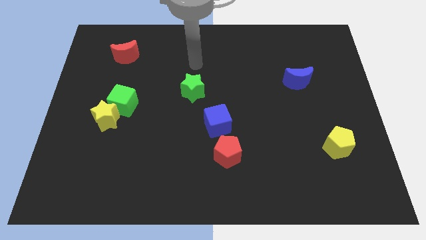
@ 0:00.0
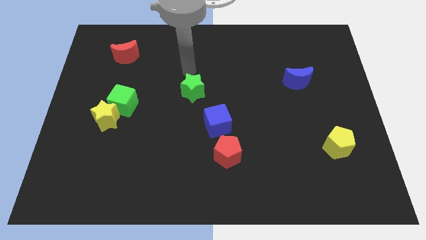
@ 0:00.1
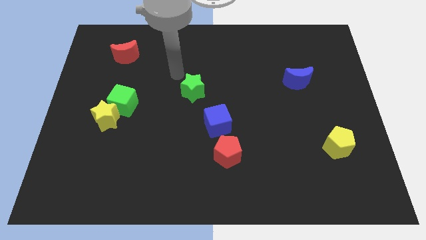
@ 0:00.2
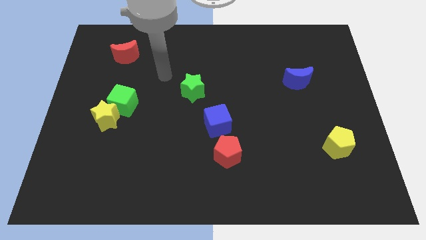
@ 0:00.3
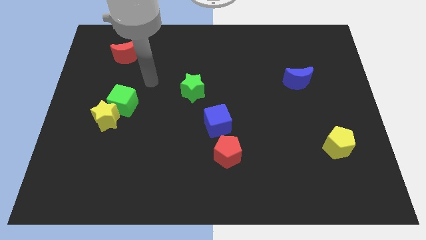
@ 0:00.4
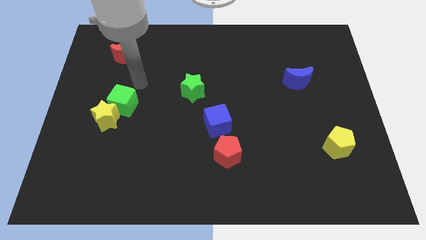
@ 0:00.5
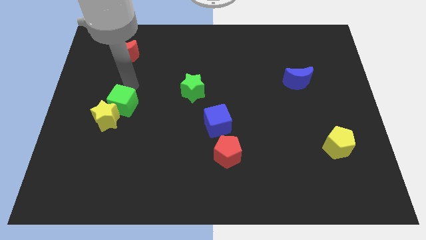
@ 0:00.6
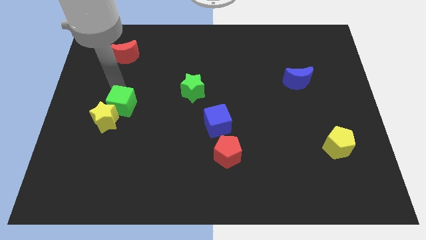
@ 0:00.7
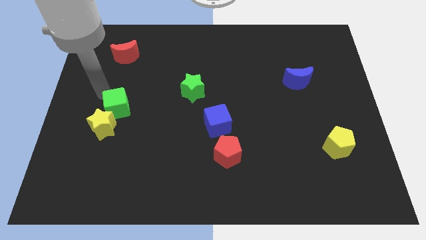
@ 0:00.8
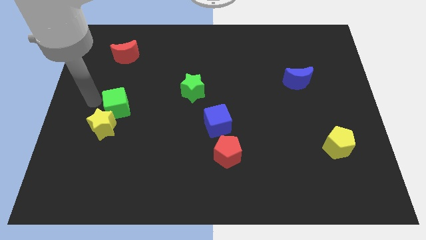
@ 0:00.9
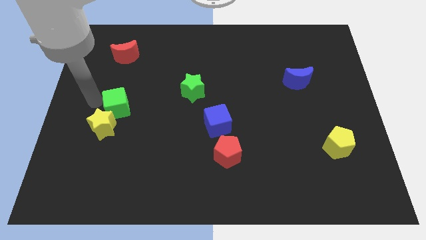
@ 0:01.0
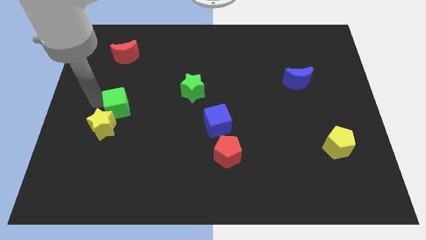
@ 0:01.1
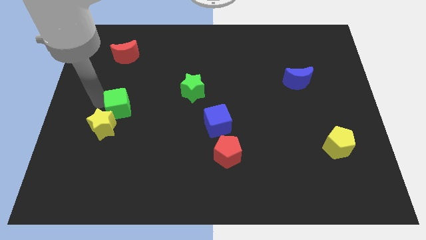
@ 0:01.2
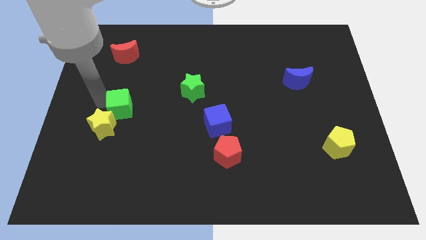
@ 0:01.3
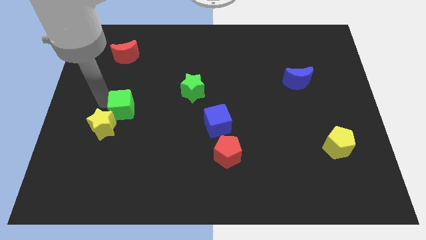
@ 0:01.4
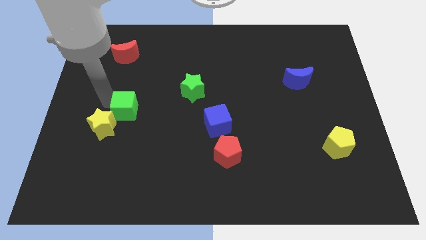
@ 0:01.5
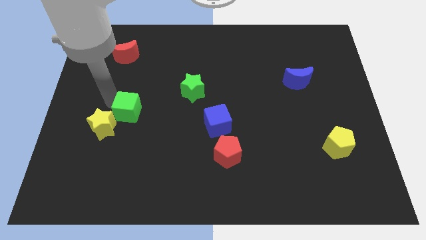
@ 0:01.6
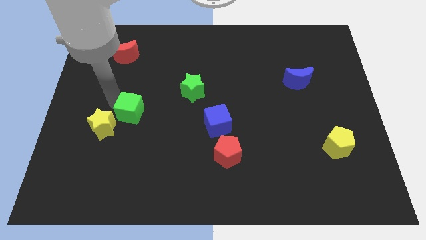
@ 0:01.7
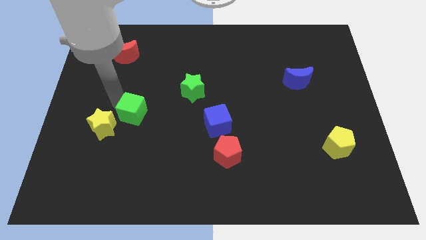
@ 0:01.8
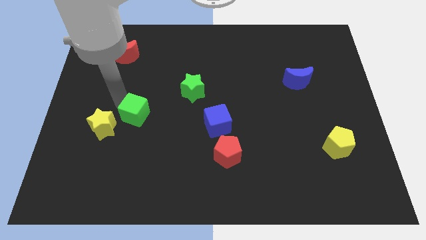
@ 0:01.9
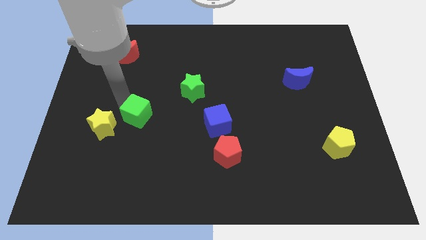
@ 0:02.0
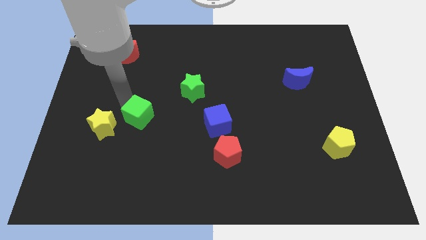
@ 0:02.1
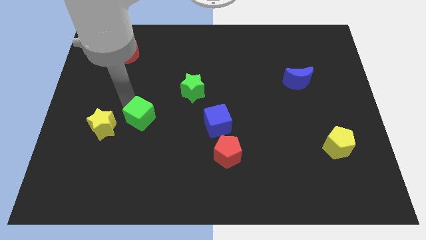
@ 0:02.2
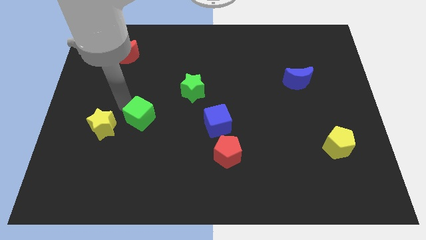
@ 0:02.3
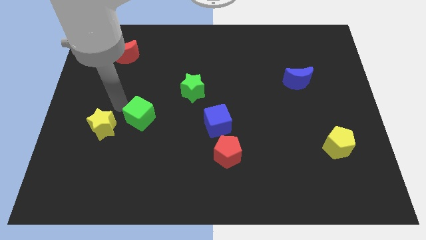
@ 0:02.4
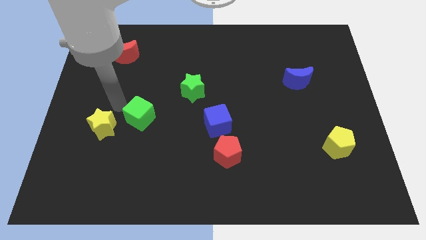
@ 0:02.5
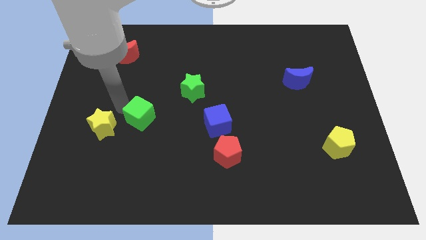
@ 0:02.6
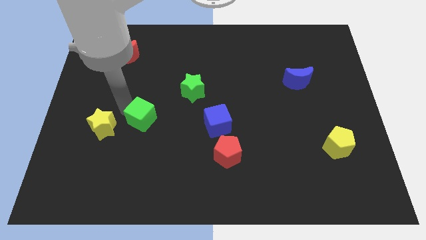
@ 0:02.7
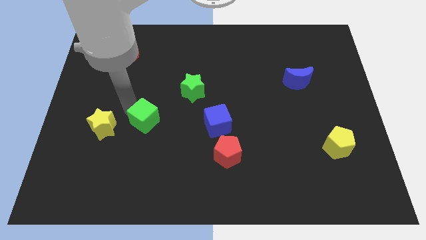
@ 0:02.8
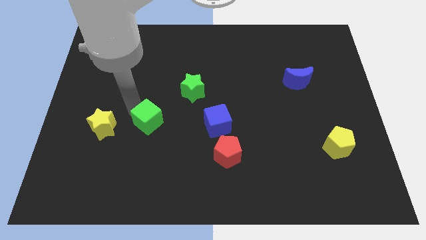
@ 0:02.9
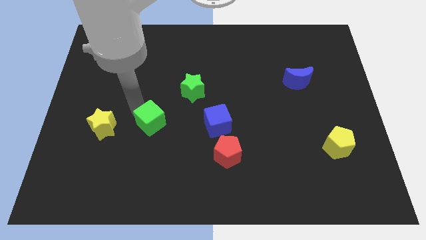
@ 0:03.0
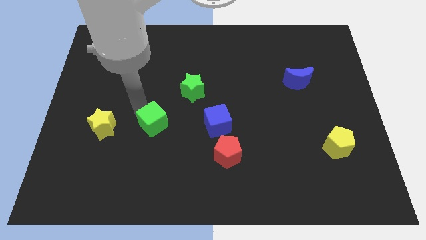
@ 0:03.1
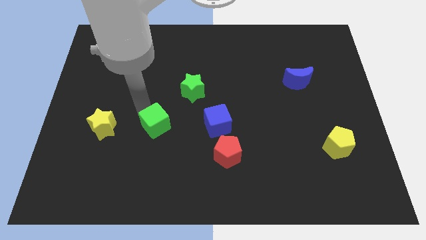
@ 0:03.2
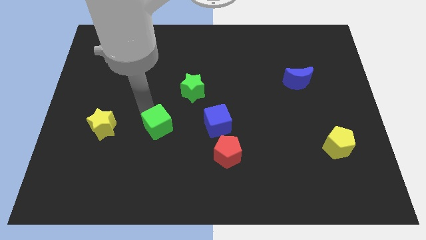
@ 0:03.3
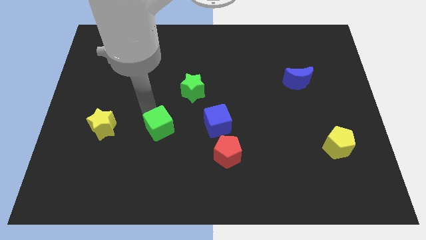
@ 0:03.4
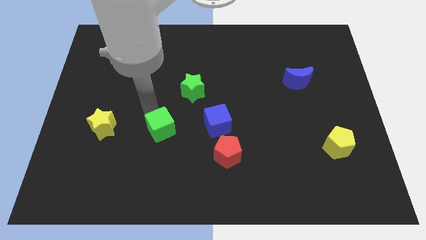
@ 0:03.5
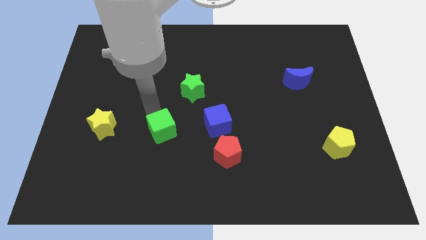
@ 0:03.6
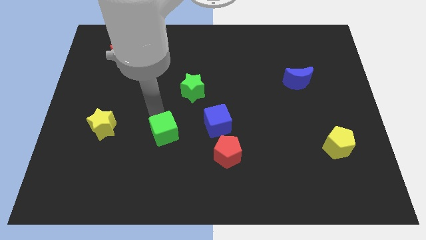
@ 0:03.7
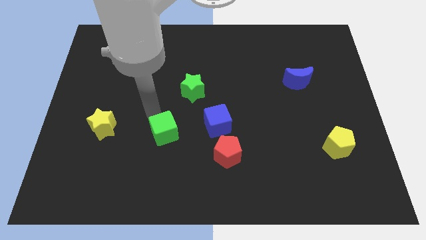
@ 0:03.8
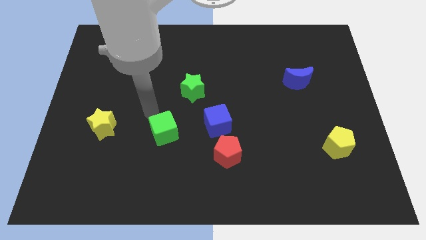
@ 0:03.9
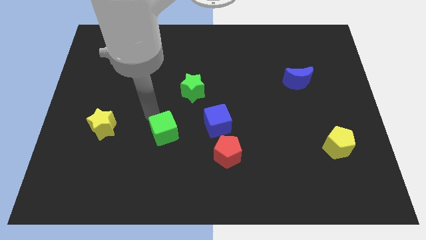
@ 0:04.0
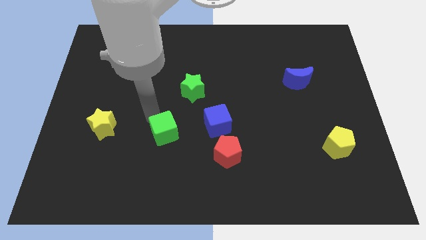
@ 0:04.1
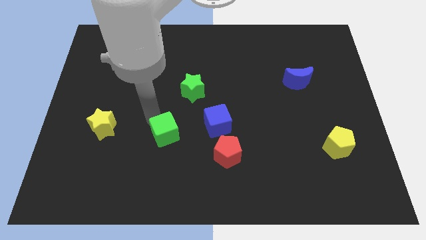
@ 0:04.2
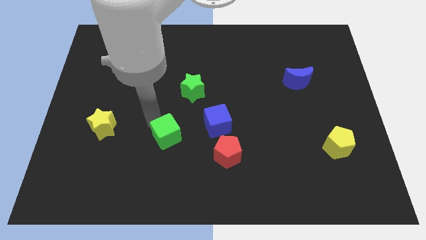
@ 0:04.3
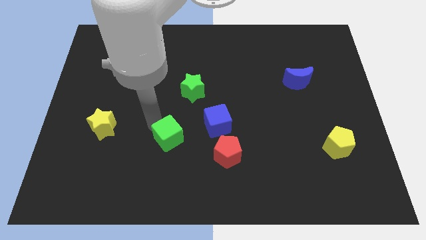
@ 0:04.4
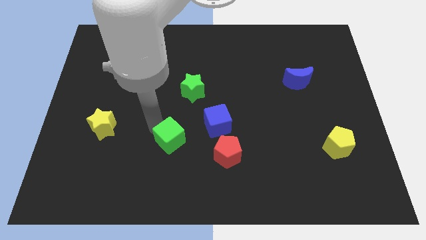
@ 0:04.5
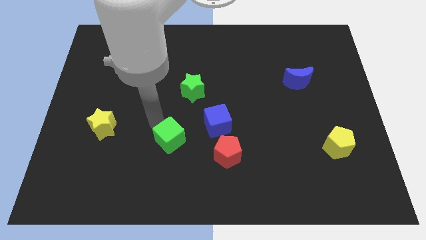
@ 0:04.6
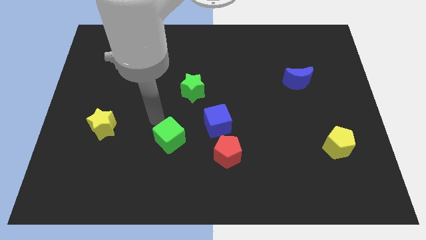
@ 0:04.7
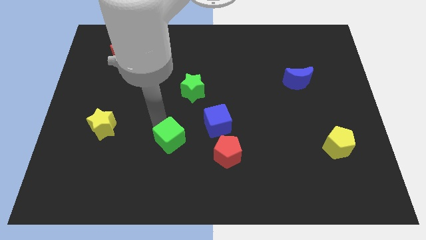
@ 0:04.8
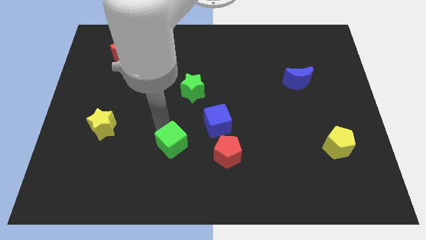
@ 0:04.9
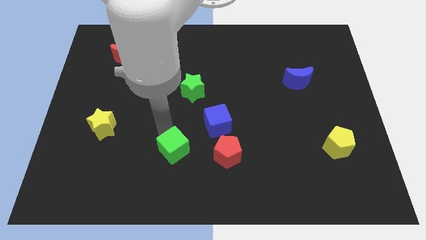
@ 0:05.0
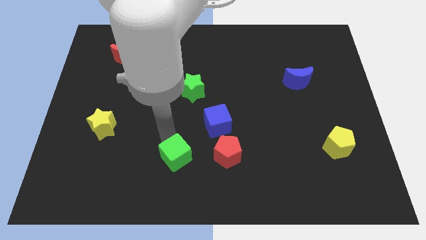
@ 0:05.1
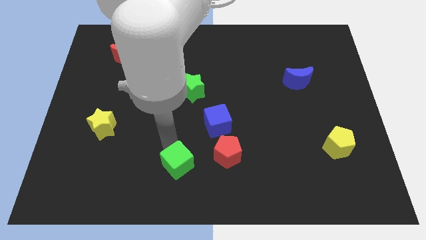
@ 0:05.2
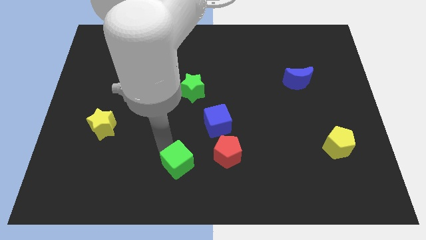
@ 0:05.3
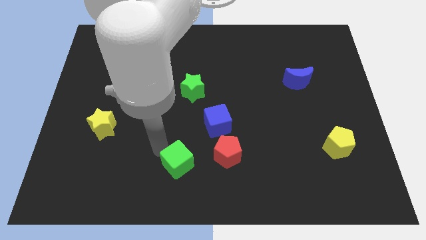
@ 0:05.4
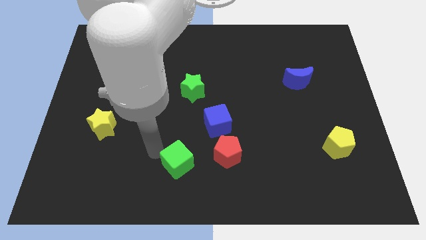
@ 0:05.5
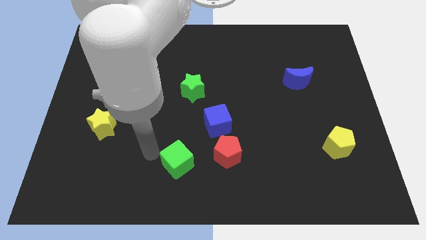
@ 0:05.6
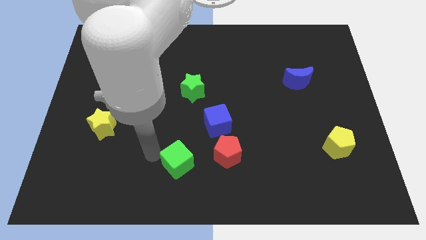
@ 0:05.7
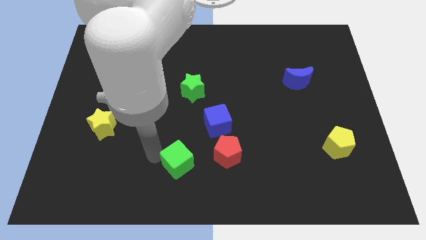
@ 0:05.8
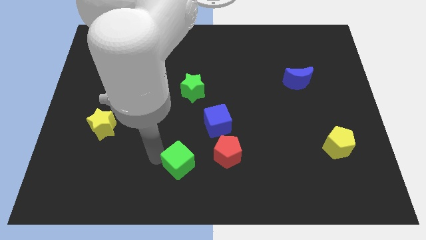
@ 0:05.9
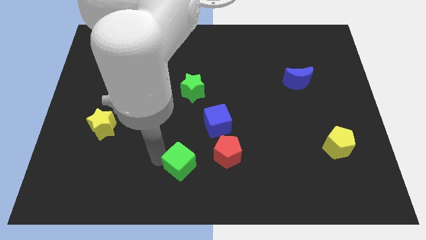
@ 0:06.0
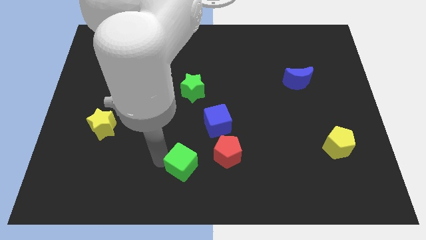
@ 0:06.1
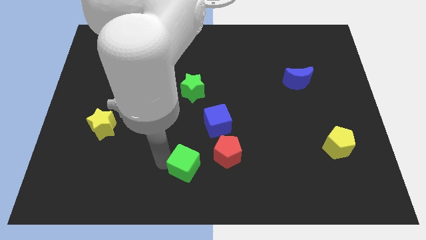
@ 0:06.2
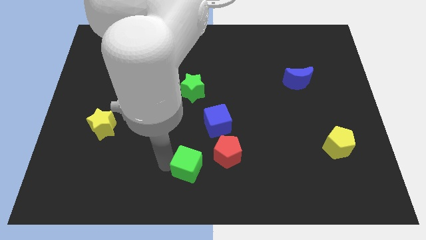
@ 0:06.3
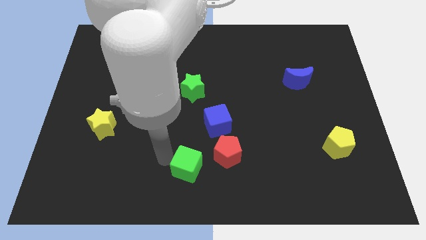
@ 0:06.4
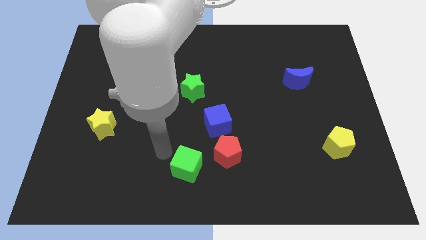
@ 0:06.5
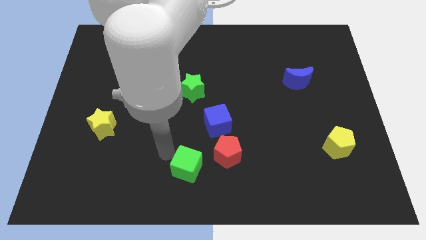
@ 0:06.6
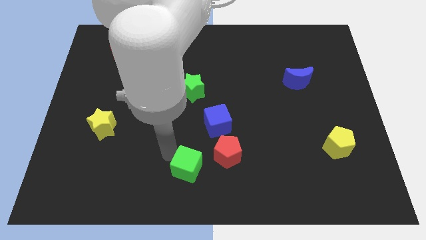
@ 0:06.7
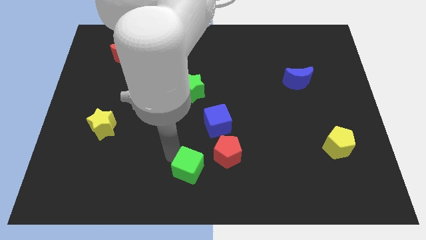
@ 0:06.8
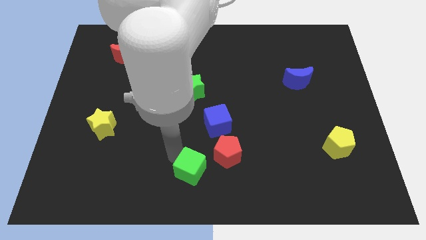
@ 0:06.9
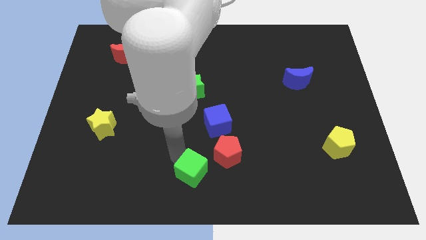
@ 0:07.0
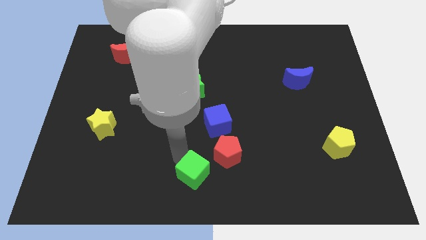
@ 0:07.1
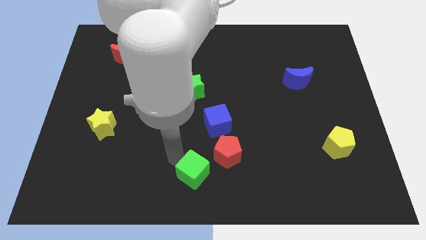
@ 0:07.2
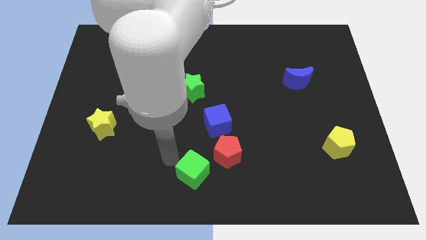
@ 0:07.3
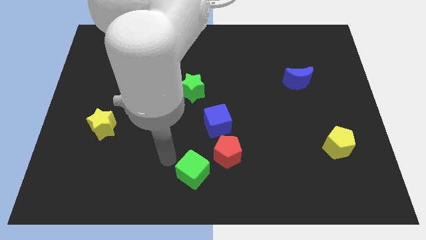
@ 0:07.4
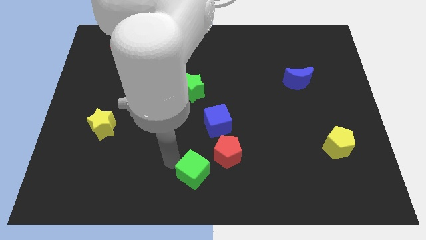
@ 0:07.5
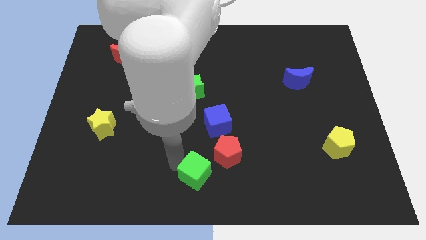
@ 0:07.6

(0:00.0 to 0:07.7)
slide the green cube below the blue cube
